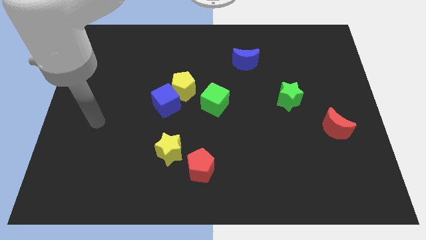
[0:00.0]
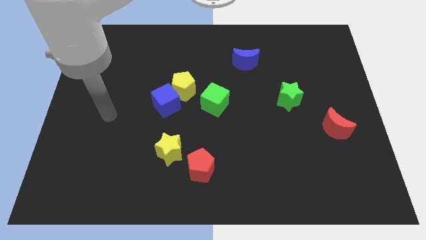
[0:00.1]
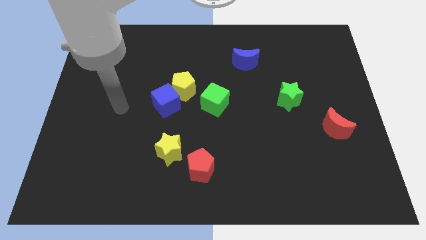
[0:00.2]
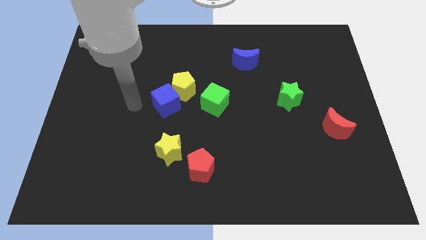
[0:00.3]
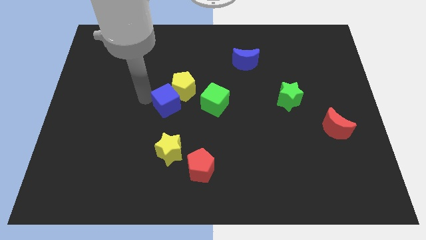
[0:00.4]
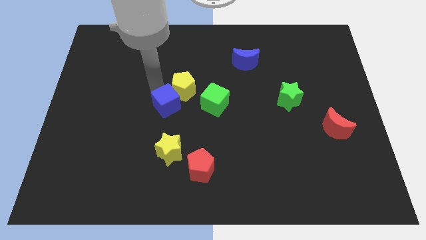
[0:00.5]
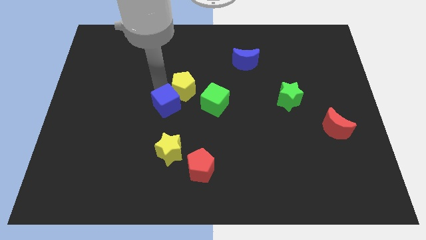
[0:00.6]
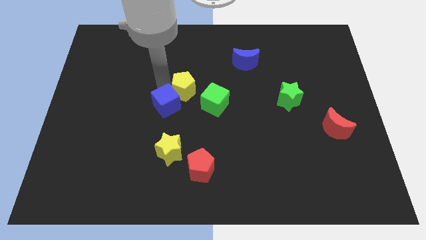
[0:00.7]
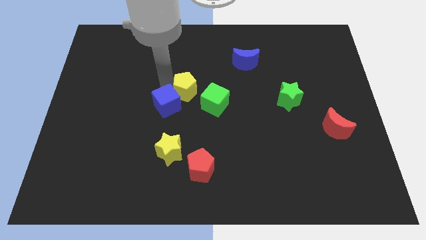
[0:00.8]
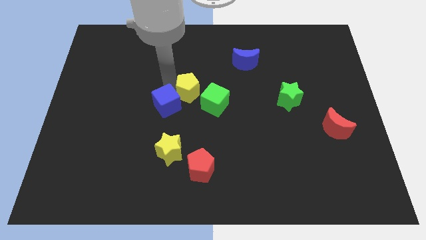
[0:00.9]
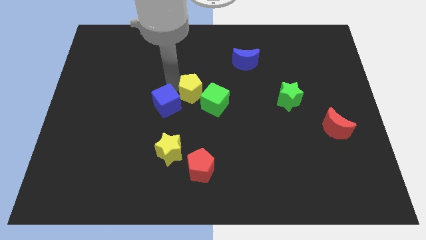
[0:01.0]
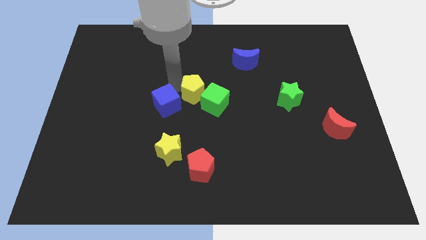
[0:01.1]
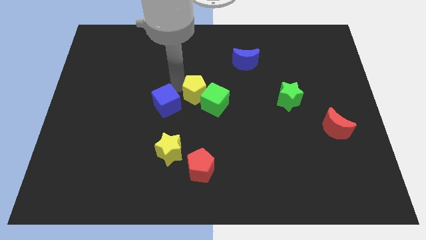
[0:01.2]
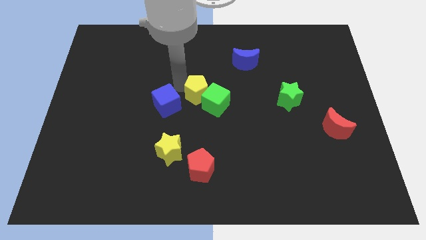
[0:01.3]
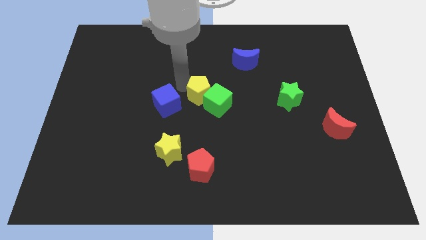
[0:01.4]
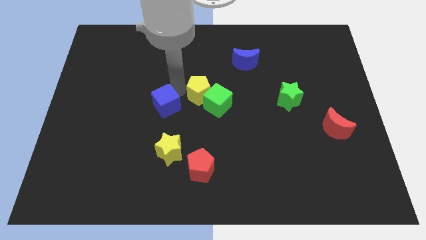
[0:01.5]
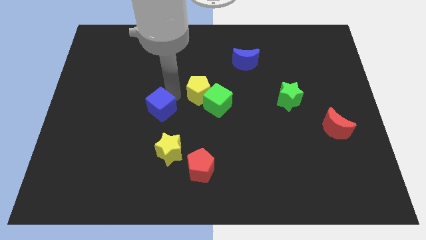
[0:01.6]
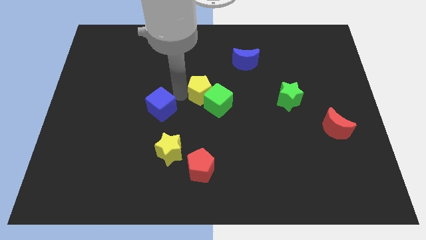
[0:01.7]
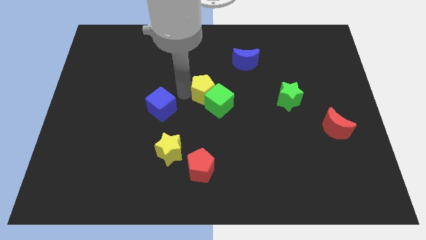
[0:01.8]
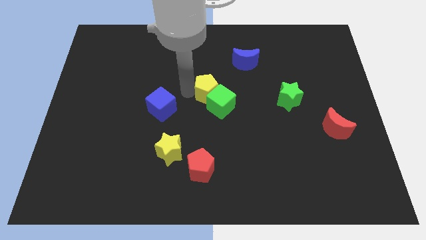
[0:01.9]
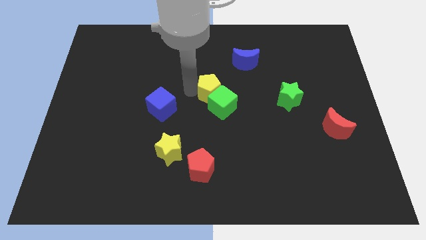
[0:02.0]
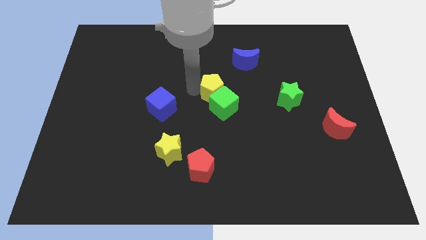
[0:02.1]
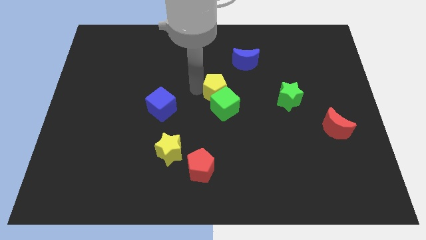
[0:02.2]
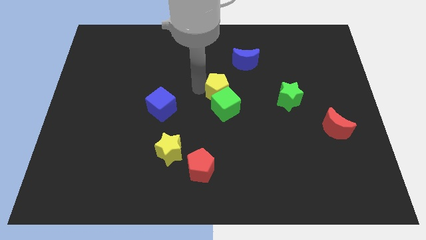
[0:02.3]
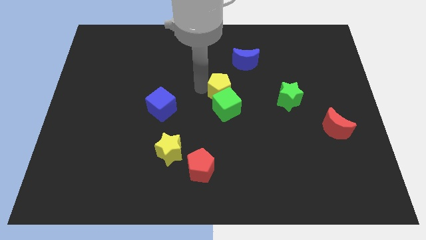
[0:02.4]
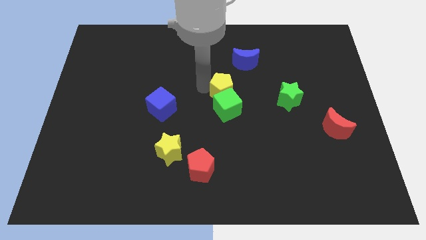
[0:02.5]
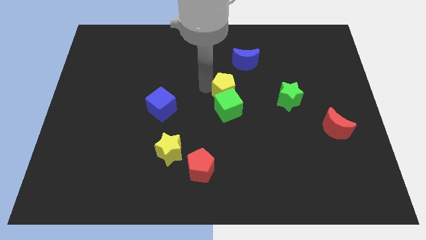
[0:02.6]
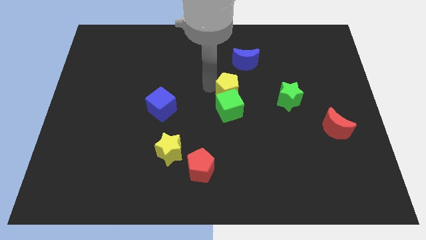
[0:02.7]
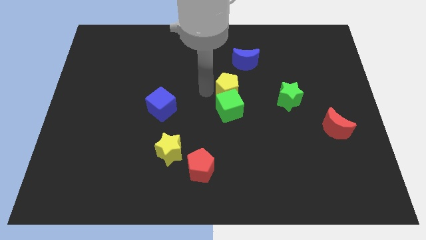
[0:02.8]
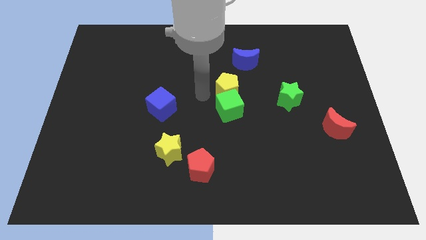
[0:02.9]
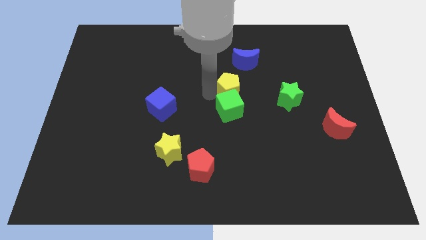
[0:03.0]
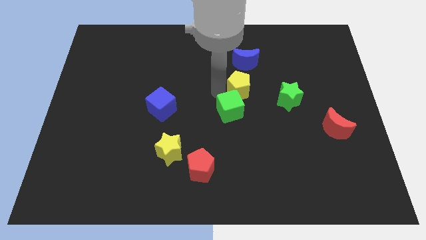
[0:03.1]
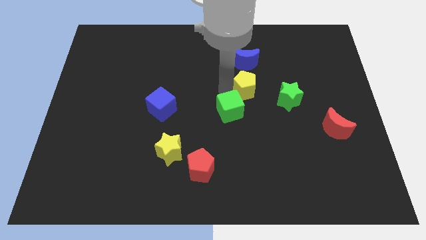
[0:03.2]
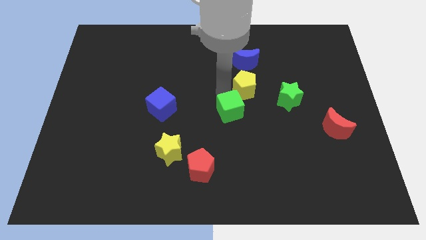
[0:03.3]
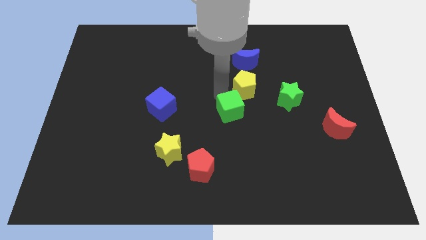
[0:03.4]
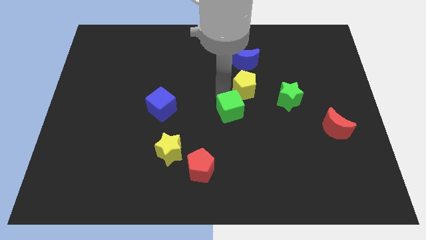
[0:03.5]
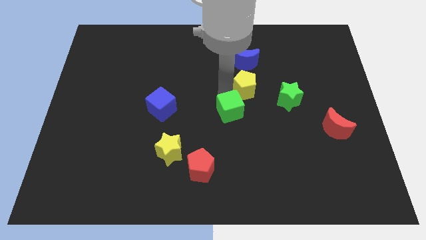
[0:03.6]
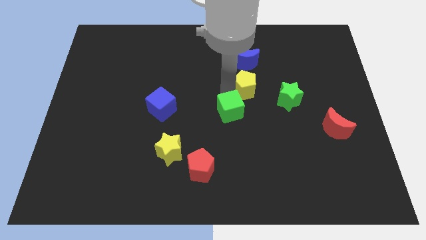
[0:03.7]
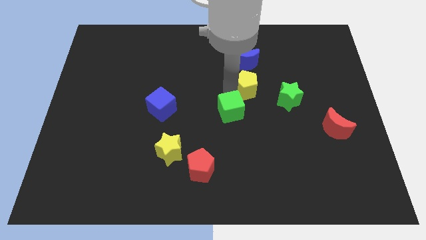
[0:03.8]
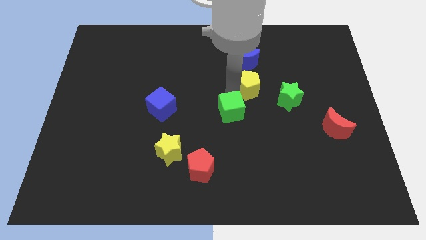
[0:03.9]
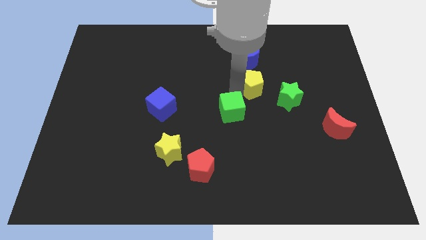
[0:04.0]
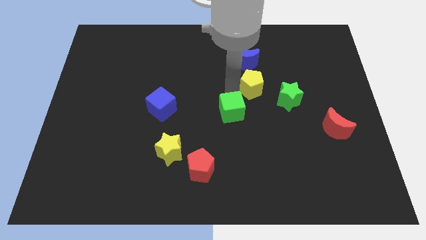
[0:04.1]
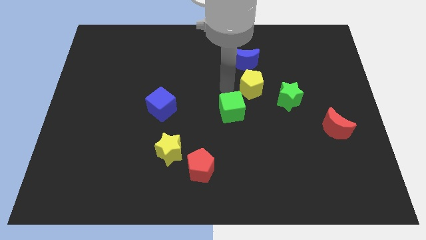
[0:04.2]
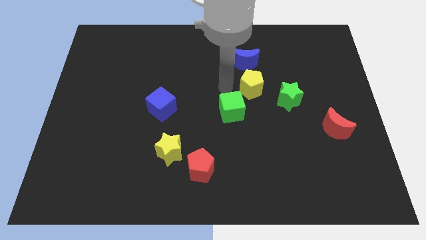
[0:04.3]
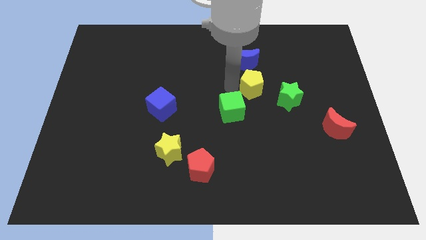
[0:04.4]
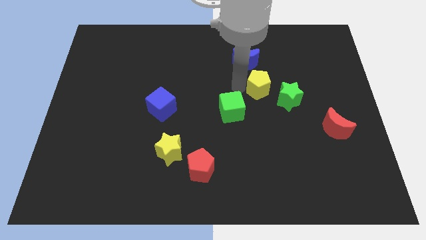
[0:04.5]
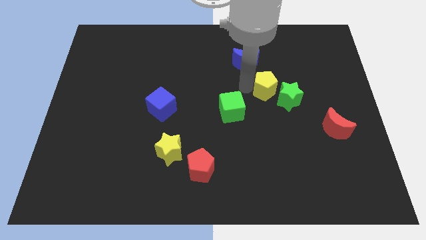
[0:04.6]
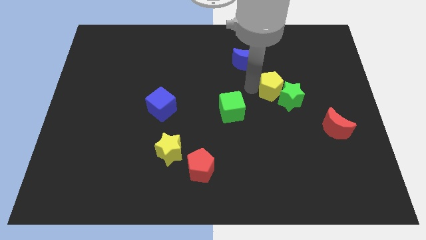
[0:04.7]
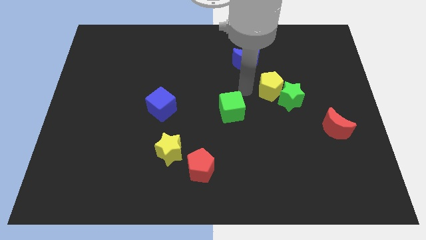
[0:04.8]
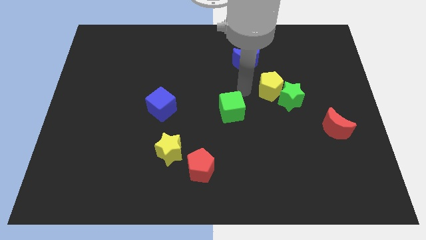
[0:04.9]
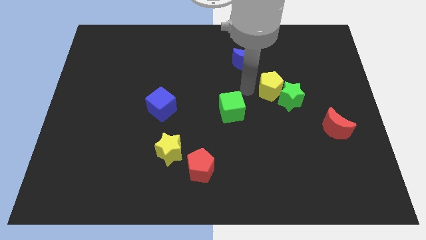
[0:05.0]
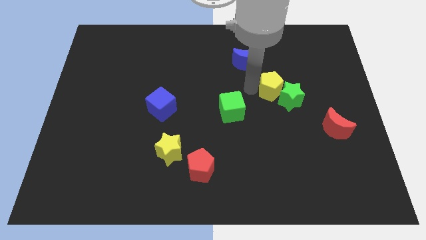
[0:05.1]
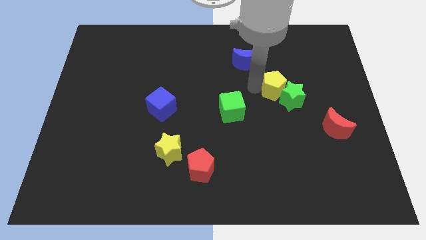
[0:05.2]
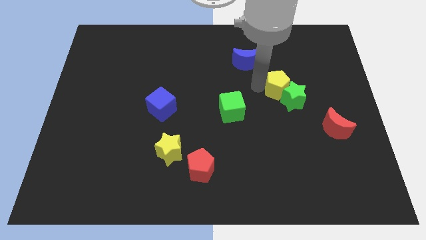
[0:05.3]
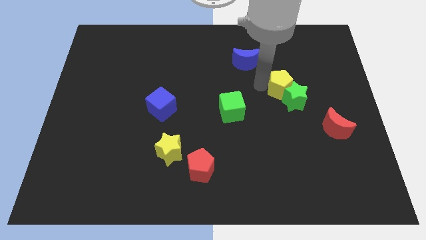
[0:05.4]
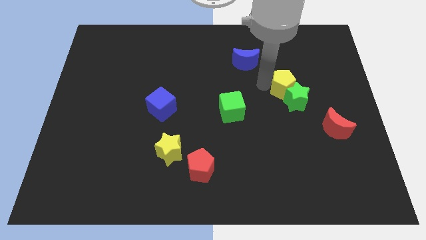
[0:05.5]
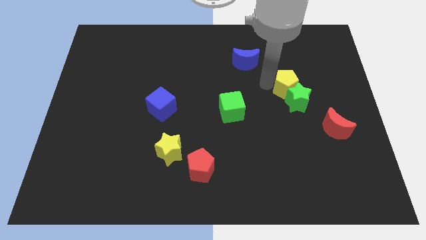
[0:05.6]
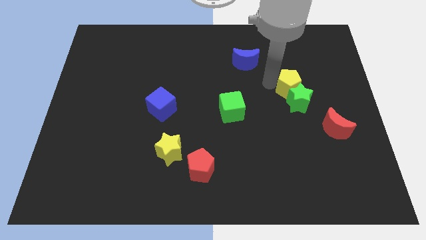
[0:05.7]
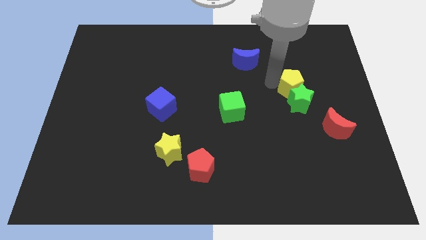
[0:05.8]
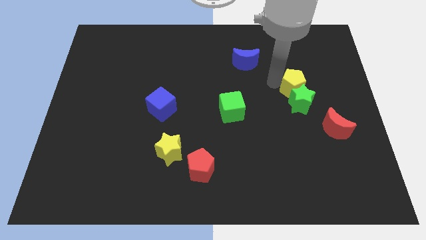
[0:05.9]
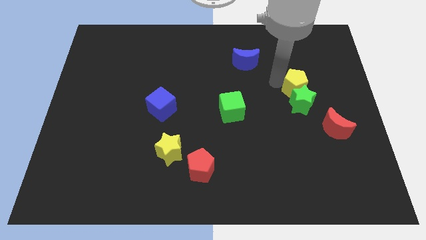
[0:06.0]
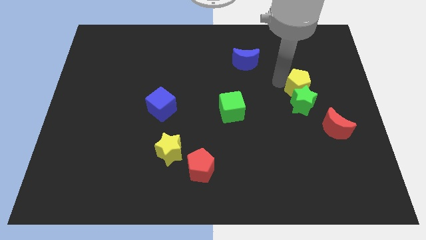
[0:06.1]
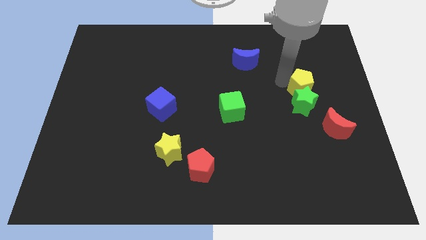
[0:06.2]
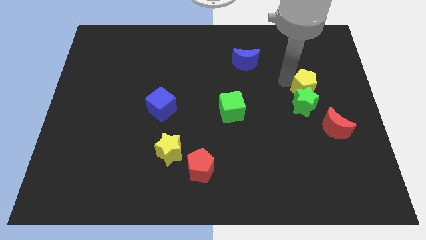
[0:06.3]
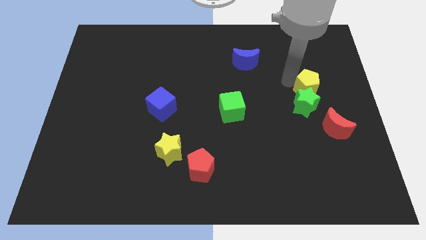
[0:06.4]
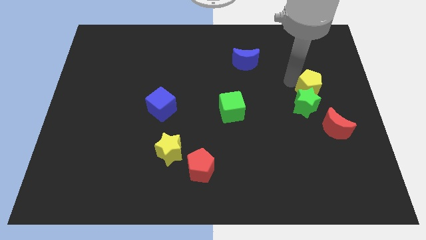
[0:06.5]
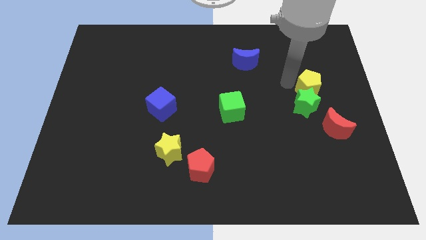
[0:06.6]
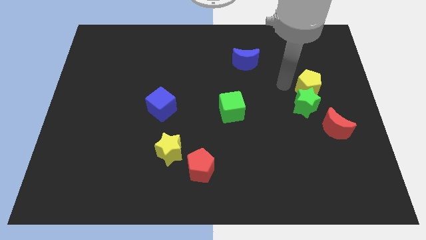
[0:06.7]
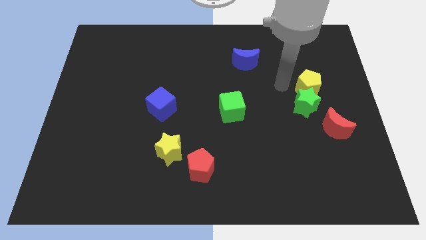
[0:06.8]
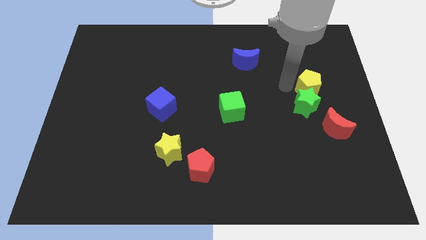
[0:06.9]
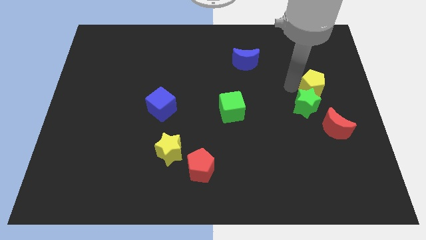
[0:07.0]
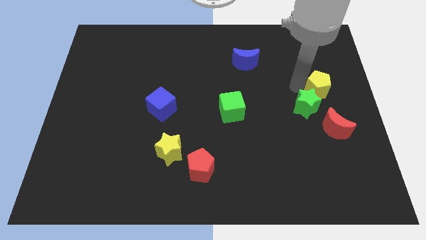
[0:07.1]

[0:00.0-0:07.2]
move the yellow pentagon to the right side of the board
